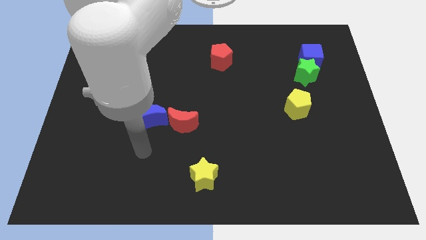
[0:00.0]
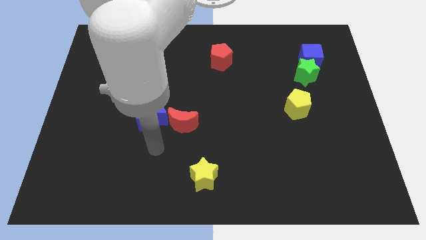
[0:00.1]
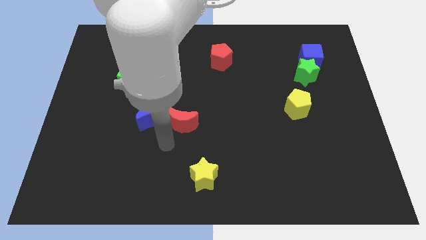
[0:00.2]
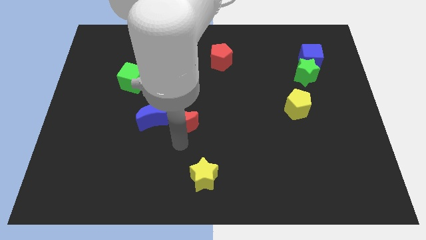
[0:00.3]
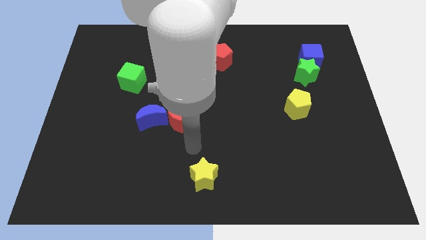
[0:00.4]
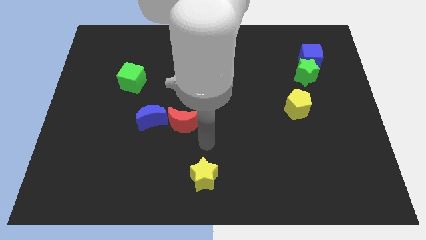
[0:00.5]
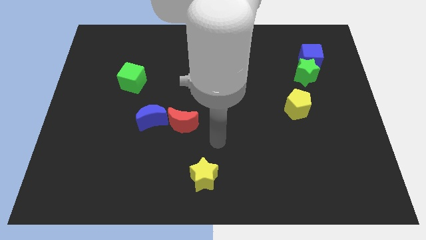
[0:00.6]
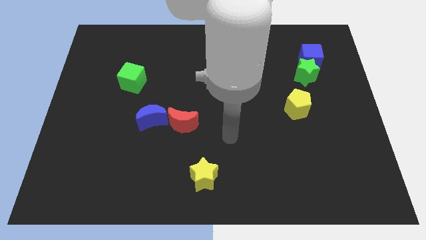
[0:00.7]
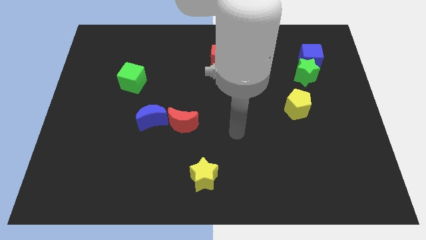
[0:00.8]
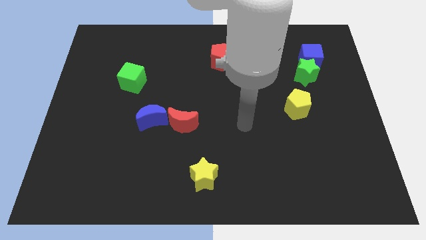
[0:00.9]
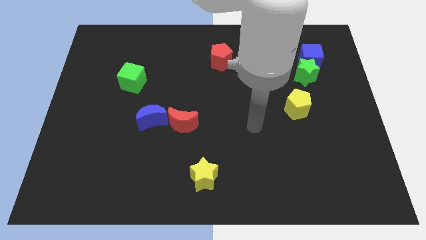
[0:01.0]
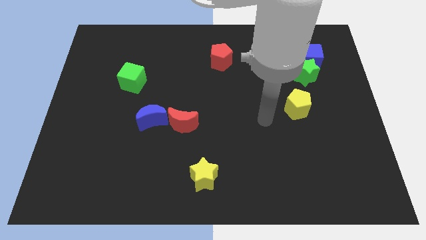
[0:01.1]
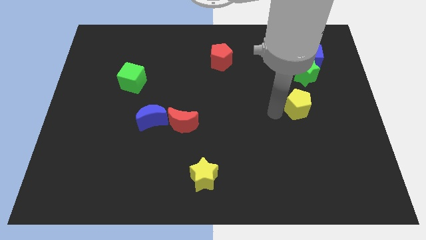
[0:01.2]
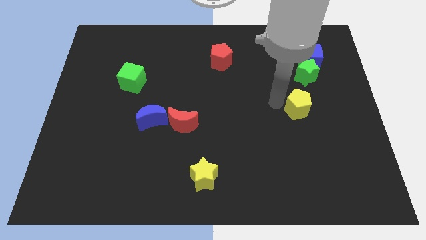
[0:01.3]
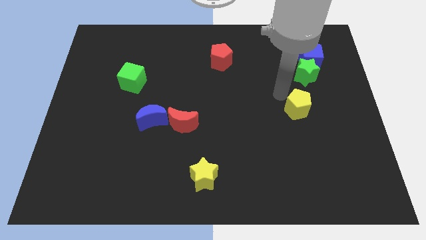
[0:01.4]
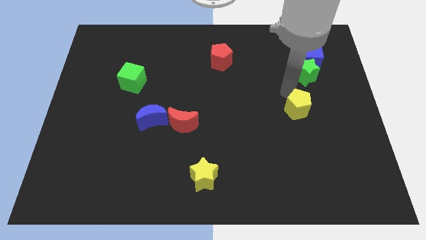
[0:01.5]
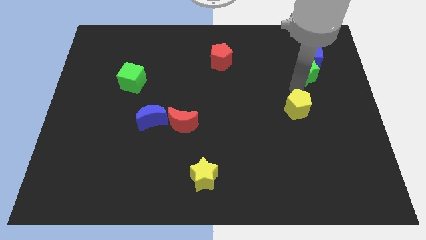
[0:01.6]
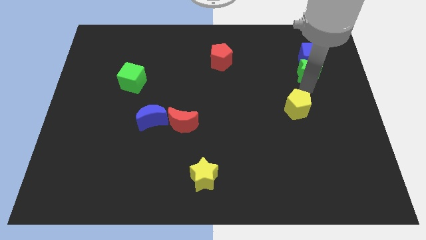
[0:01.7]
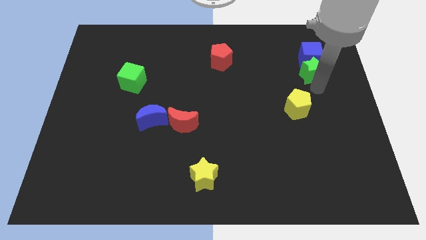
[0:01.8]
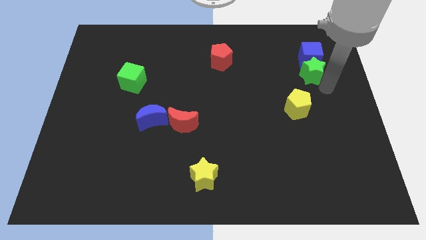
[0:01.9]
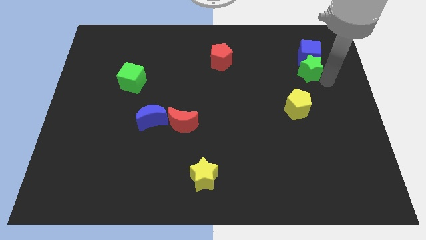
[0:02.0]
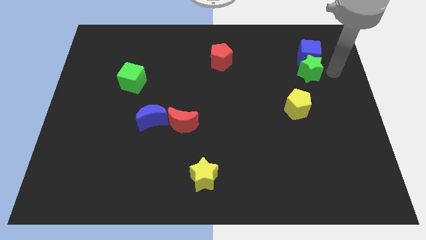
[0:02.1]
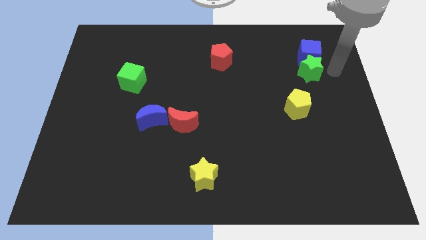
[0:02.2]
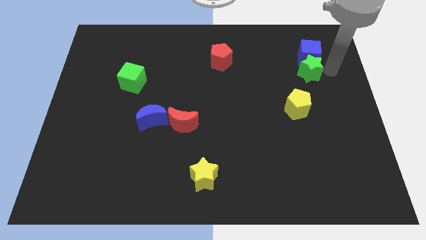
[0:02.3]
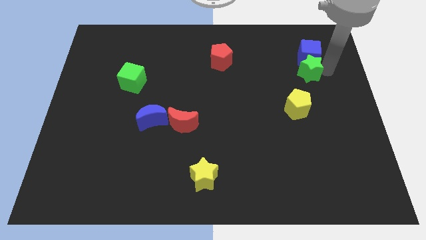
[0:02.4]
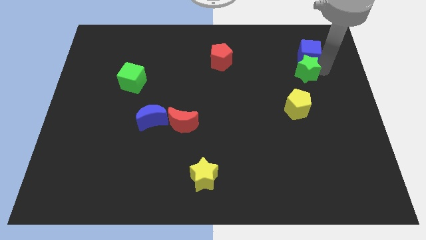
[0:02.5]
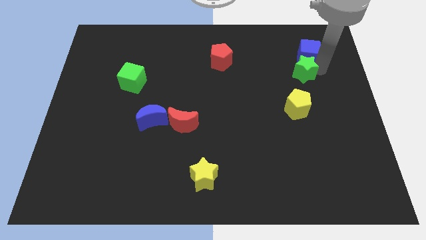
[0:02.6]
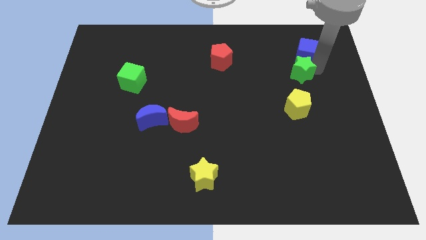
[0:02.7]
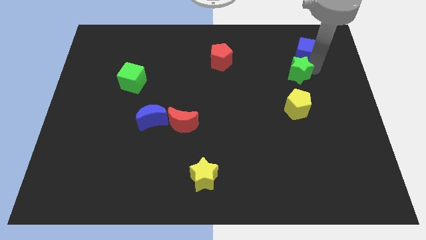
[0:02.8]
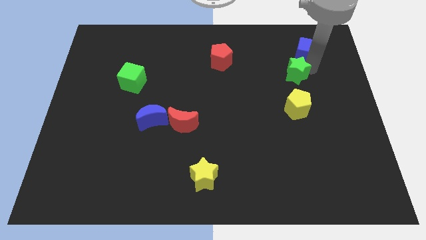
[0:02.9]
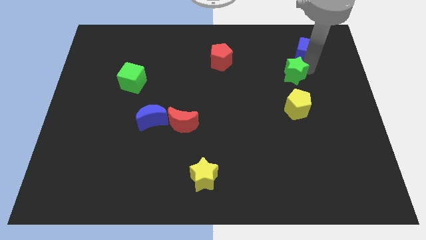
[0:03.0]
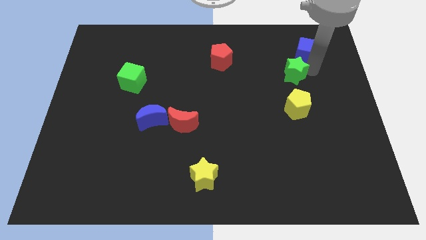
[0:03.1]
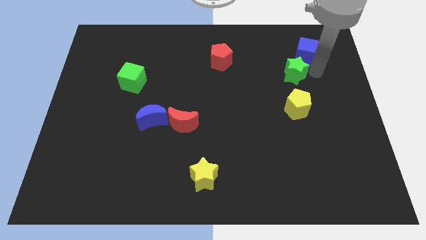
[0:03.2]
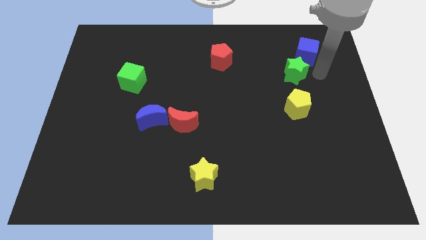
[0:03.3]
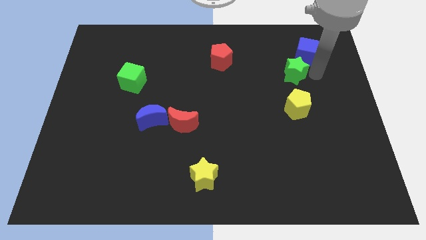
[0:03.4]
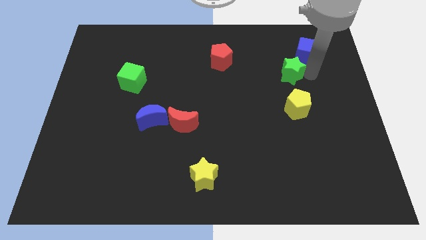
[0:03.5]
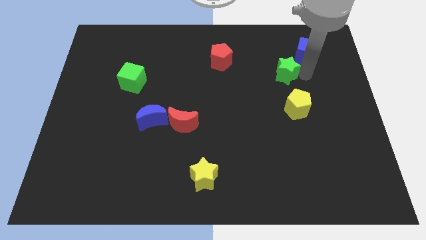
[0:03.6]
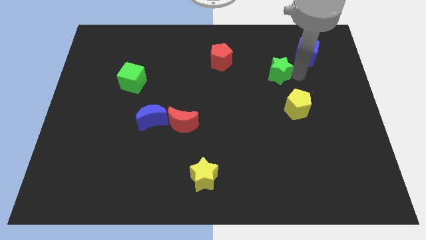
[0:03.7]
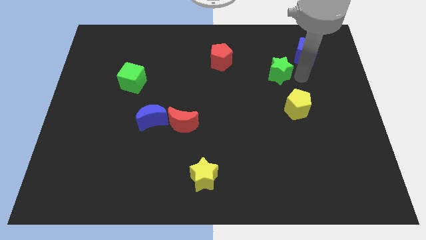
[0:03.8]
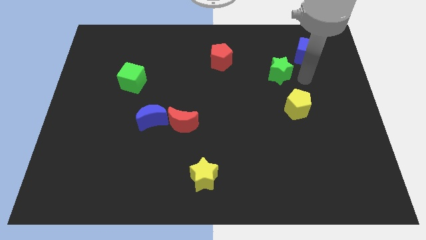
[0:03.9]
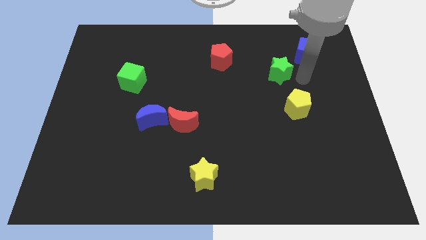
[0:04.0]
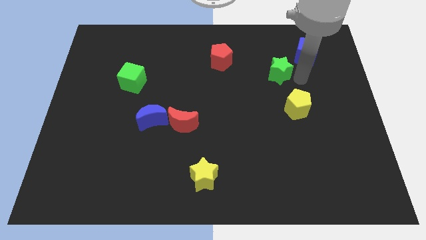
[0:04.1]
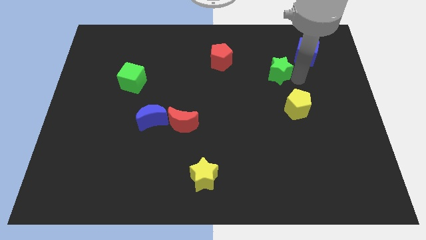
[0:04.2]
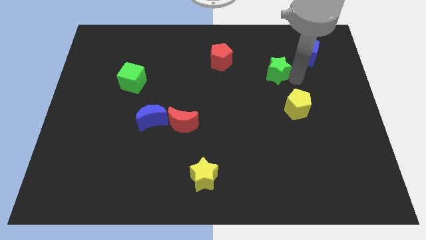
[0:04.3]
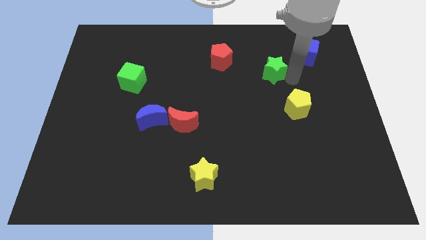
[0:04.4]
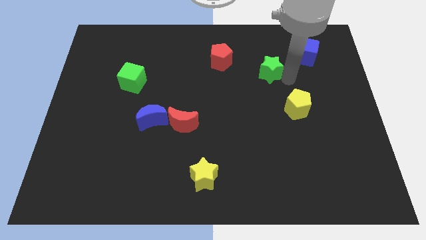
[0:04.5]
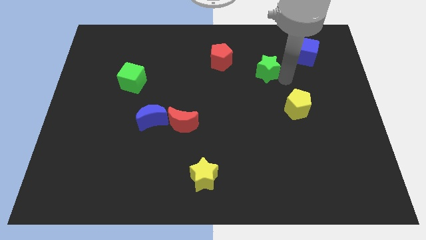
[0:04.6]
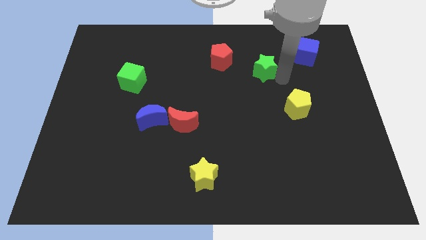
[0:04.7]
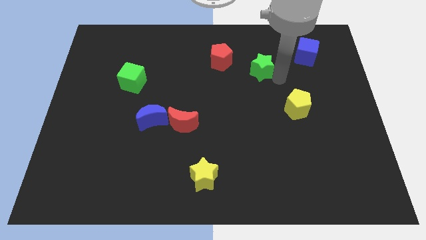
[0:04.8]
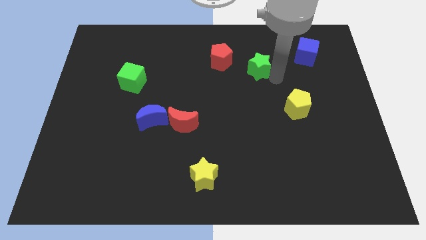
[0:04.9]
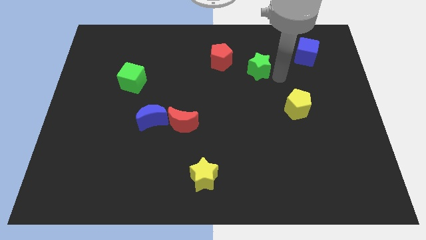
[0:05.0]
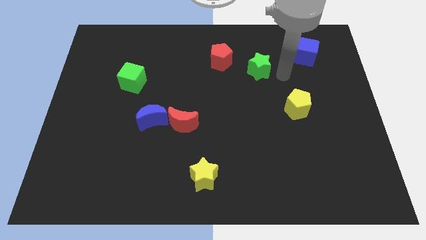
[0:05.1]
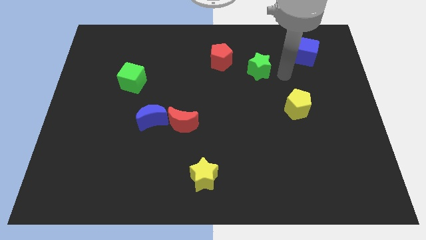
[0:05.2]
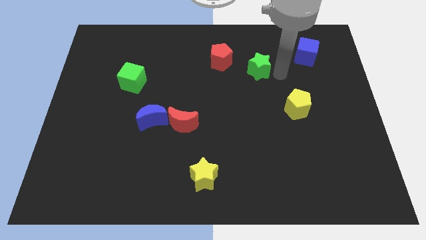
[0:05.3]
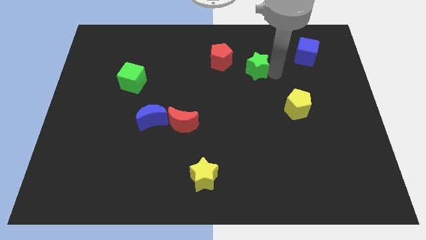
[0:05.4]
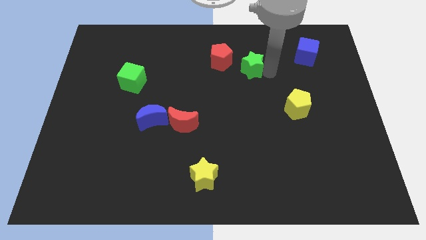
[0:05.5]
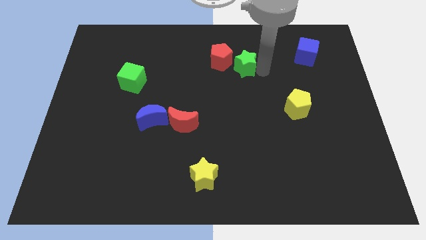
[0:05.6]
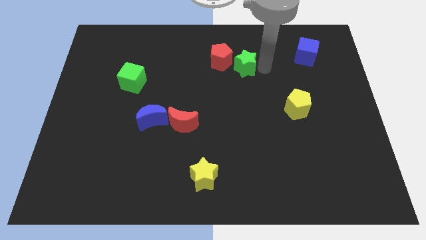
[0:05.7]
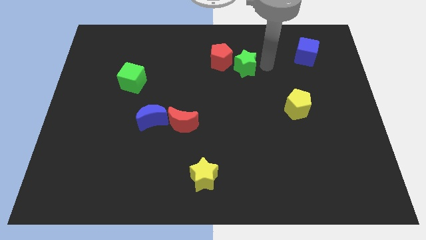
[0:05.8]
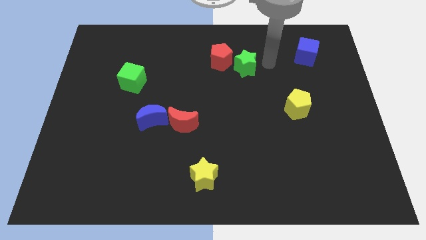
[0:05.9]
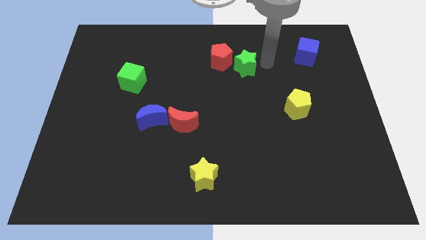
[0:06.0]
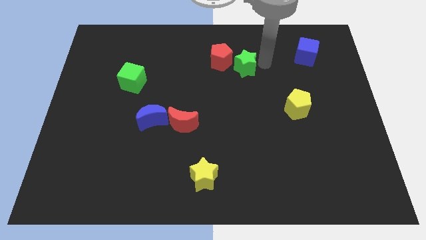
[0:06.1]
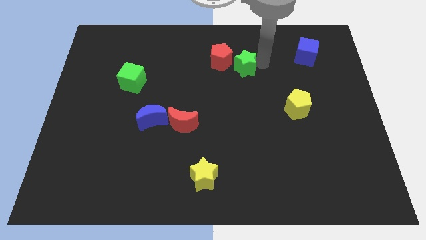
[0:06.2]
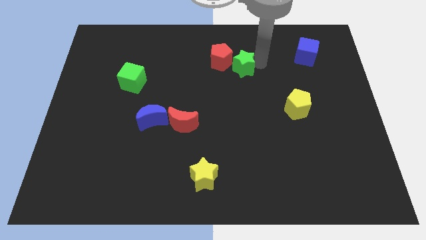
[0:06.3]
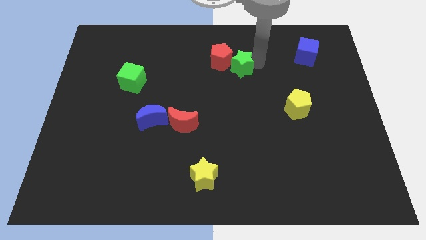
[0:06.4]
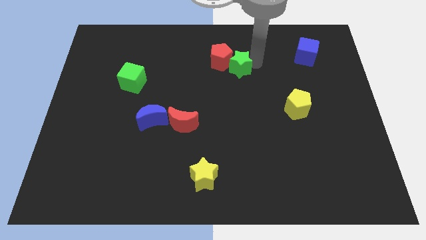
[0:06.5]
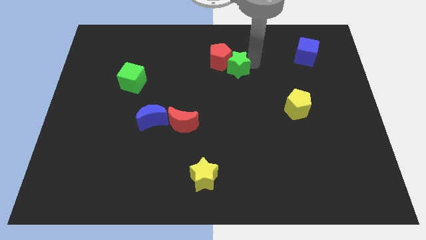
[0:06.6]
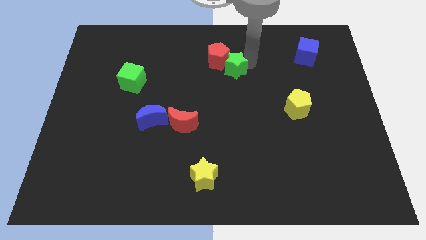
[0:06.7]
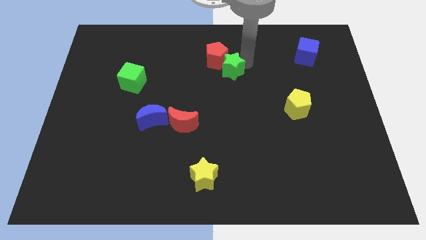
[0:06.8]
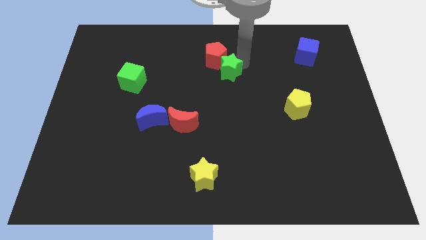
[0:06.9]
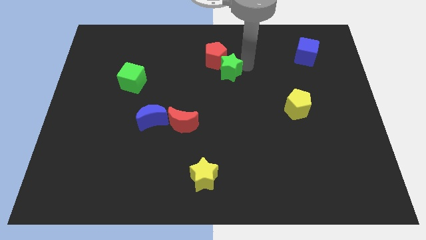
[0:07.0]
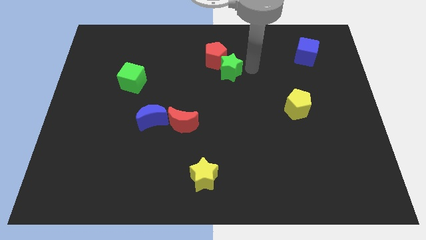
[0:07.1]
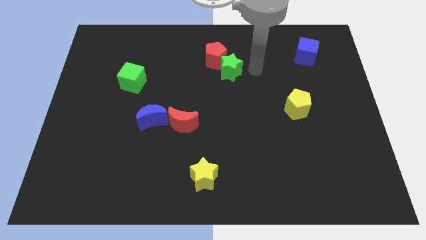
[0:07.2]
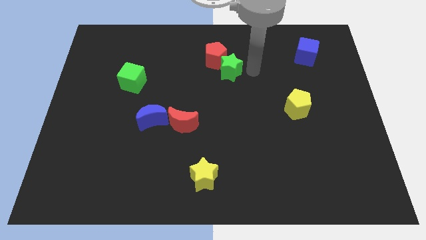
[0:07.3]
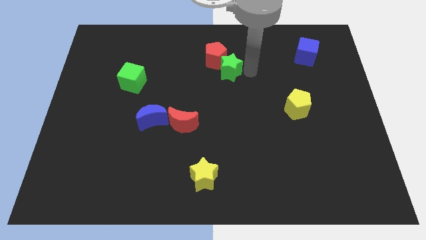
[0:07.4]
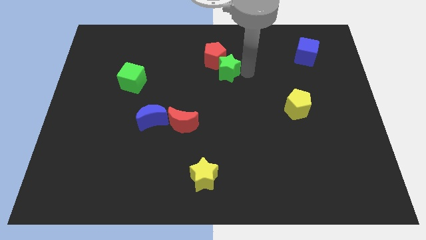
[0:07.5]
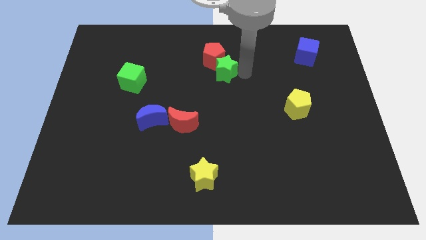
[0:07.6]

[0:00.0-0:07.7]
move the green star to the left
